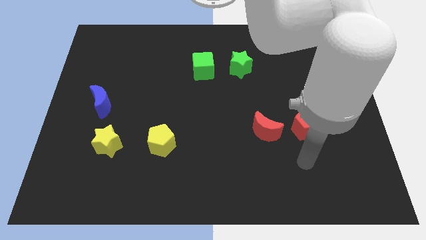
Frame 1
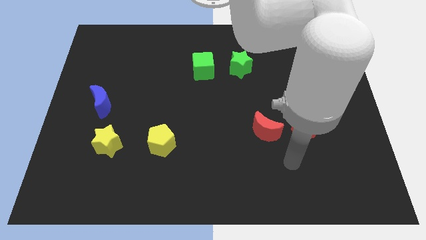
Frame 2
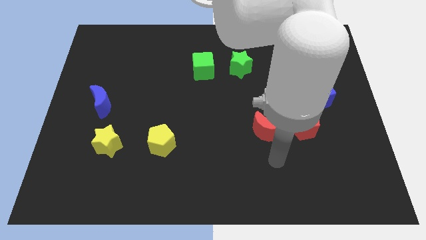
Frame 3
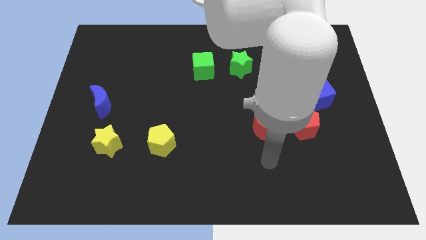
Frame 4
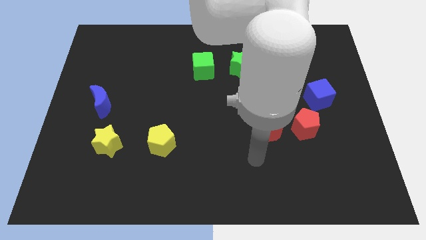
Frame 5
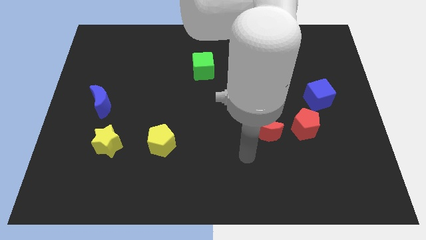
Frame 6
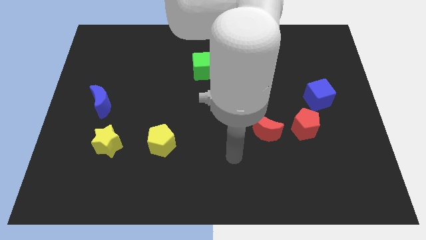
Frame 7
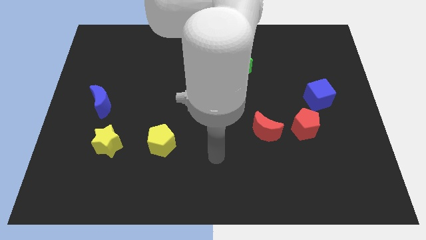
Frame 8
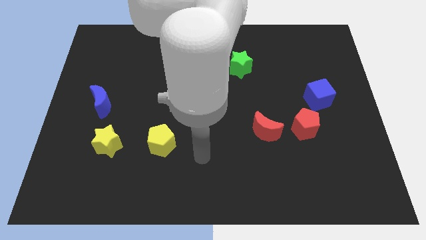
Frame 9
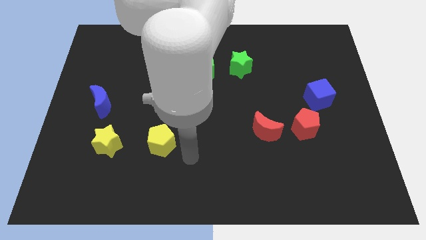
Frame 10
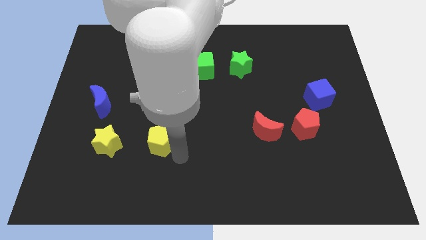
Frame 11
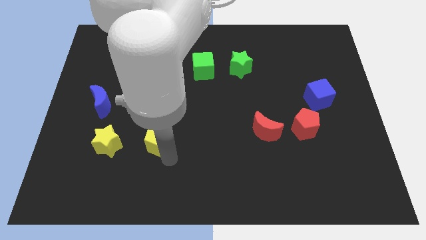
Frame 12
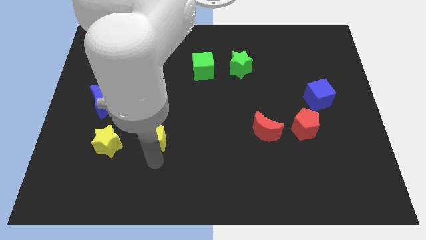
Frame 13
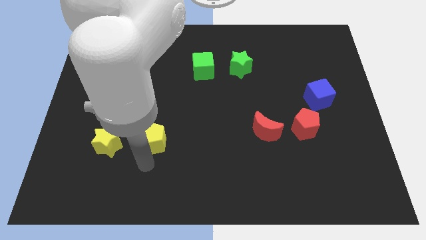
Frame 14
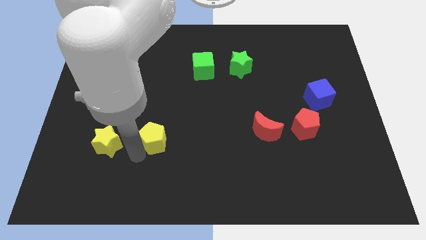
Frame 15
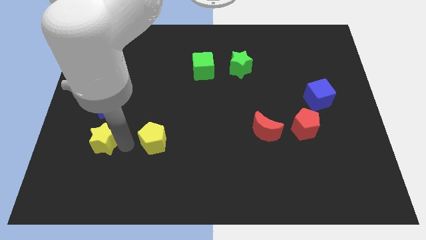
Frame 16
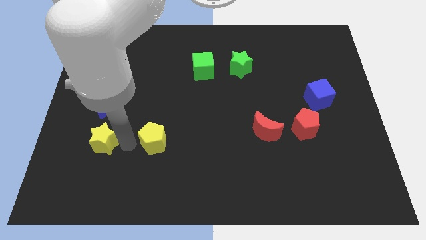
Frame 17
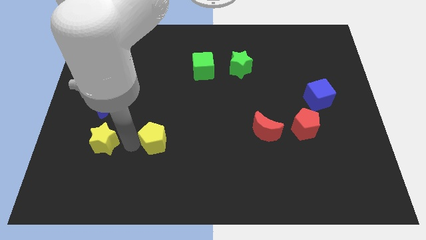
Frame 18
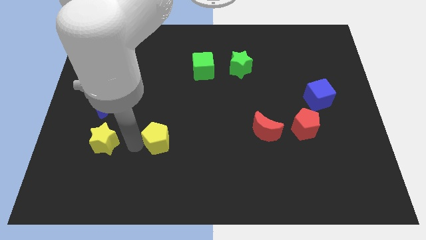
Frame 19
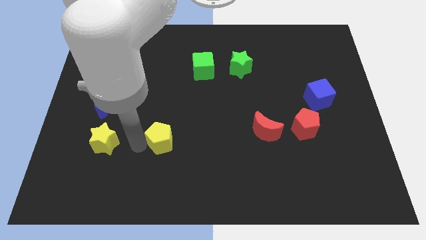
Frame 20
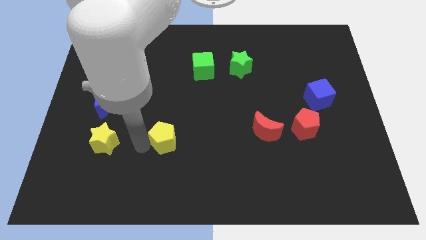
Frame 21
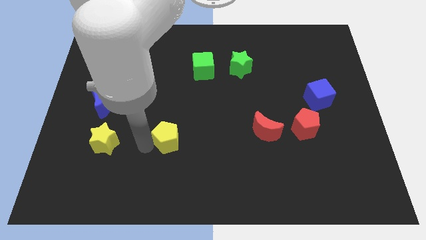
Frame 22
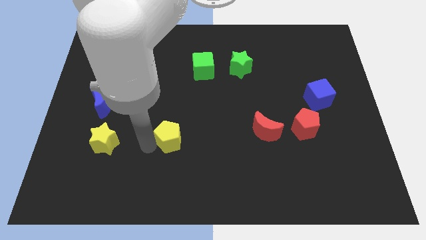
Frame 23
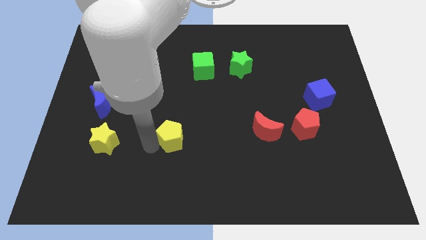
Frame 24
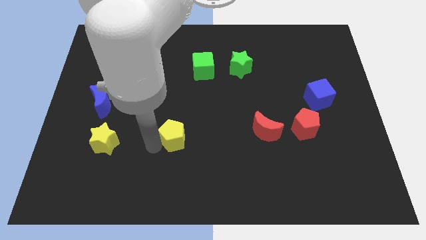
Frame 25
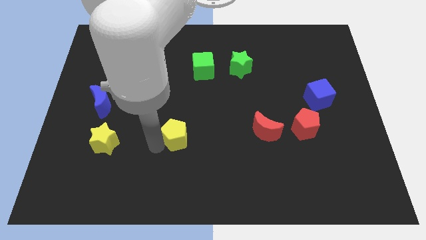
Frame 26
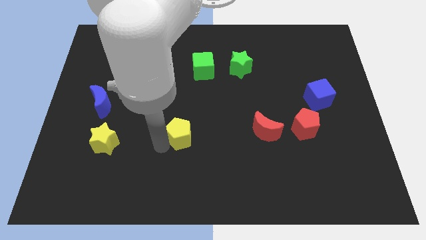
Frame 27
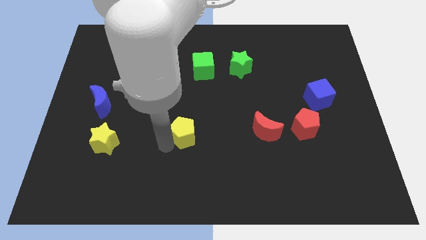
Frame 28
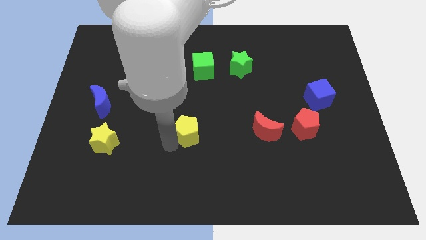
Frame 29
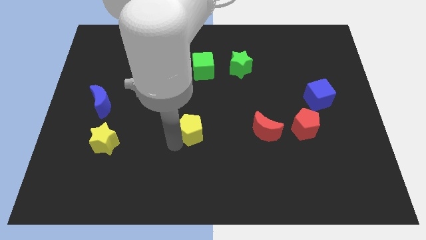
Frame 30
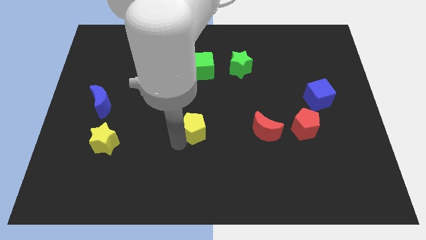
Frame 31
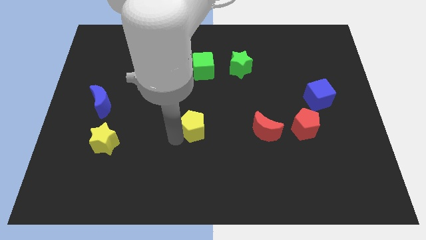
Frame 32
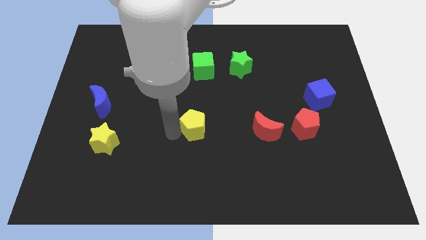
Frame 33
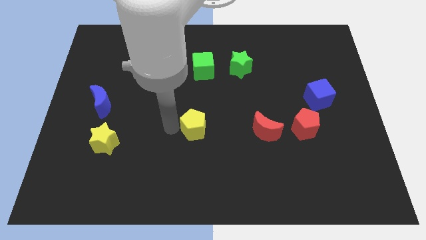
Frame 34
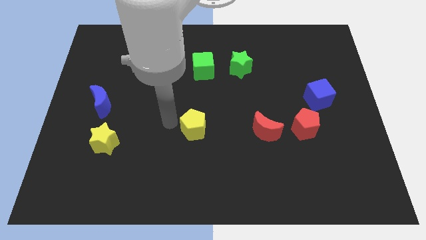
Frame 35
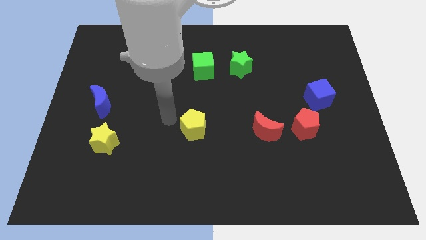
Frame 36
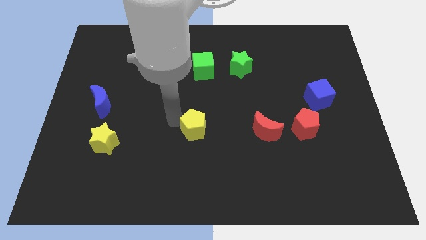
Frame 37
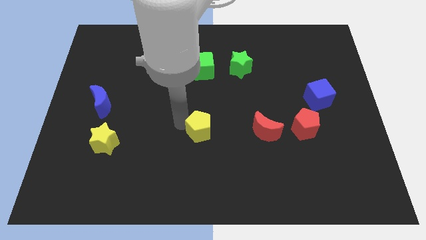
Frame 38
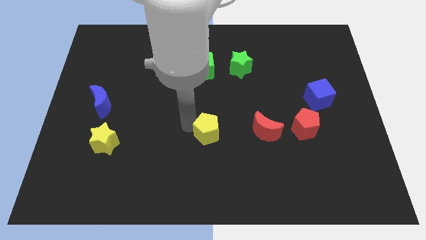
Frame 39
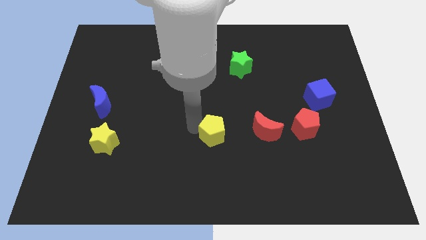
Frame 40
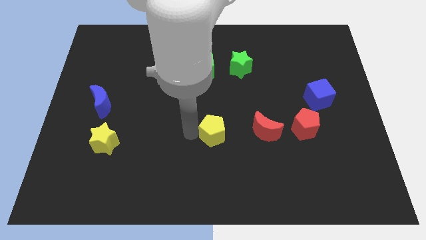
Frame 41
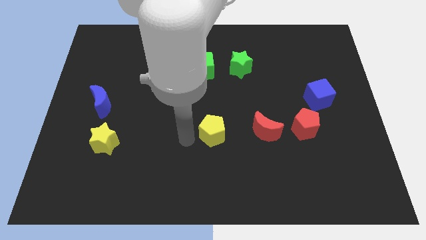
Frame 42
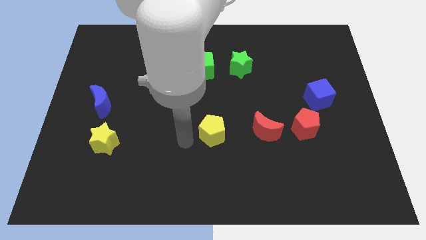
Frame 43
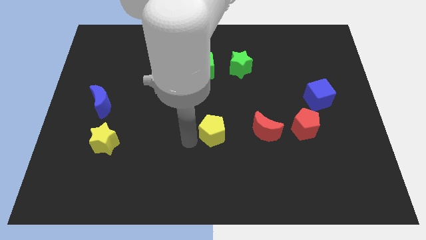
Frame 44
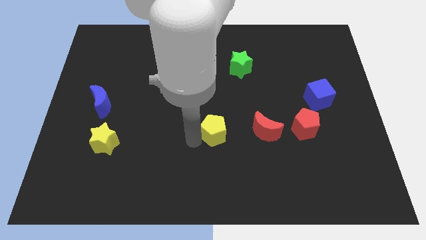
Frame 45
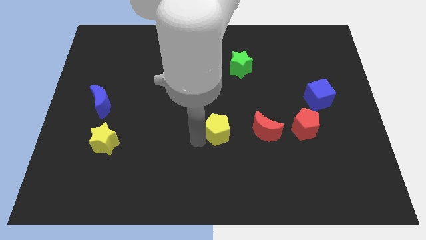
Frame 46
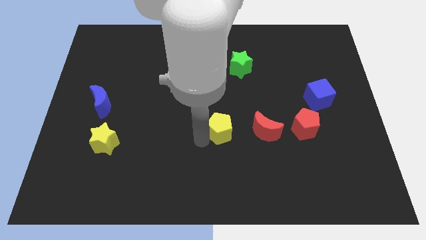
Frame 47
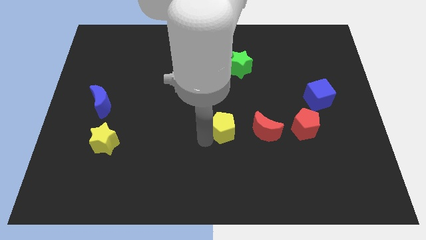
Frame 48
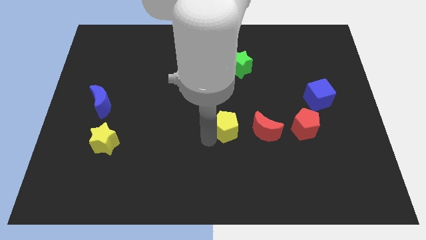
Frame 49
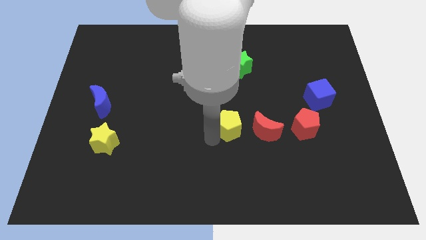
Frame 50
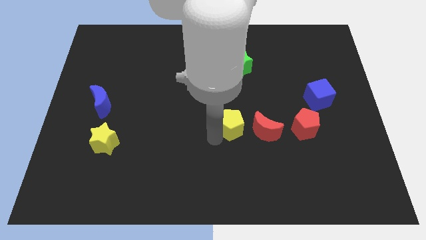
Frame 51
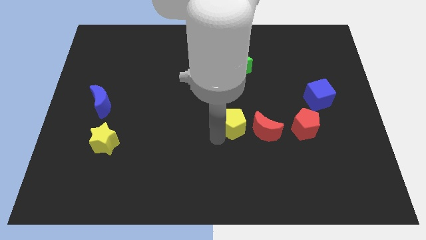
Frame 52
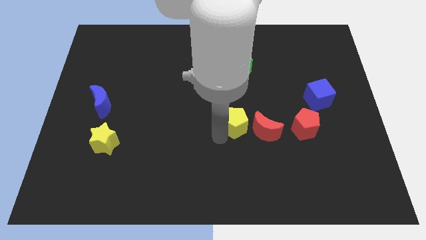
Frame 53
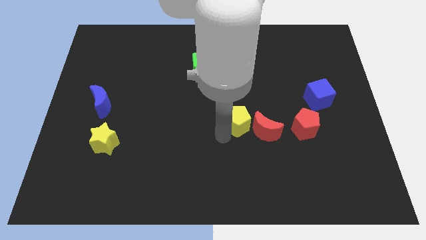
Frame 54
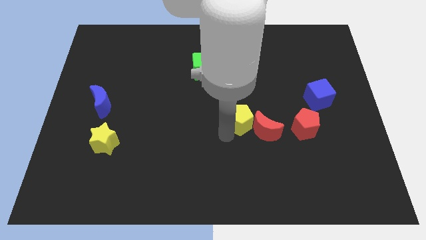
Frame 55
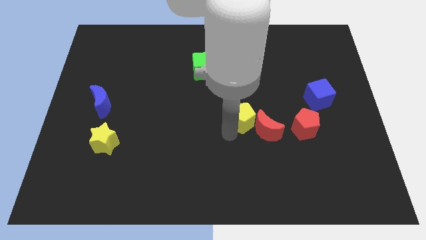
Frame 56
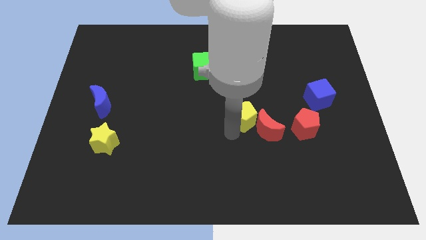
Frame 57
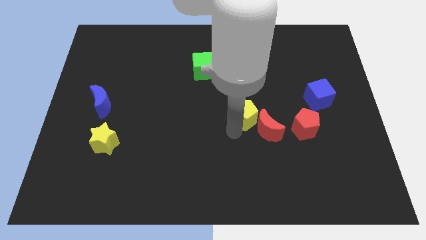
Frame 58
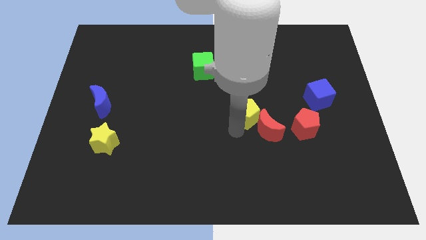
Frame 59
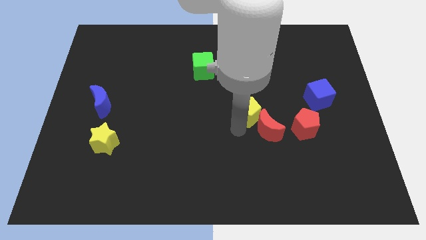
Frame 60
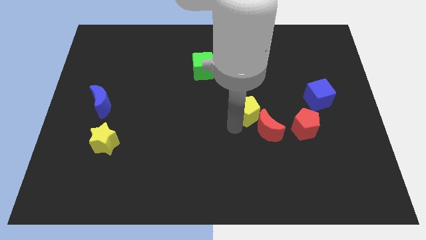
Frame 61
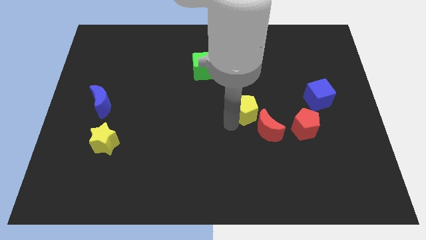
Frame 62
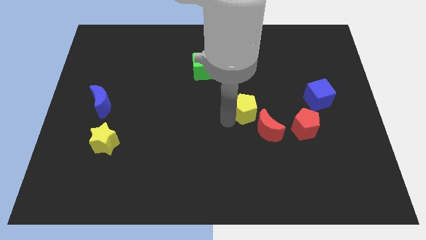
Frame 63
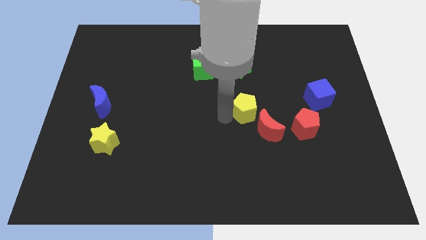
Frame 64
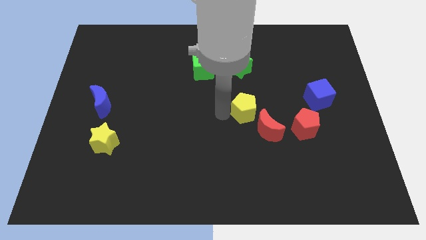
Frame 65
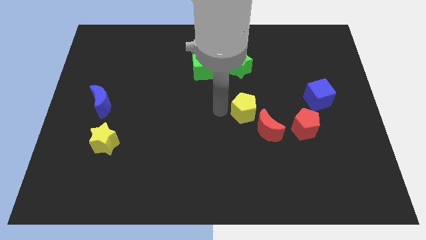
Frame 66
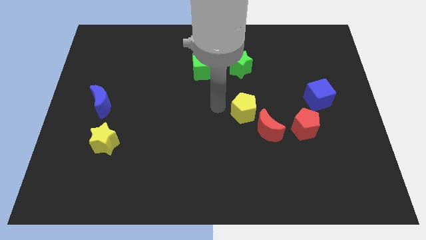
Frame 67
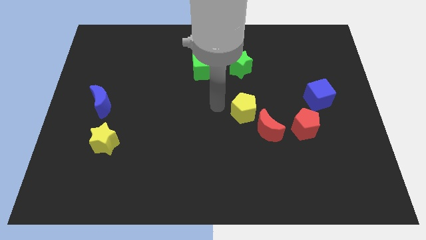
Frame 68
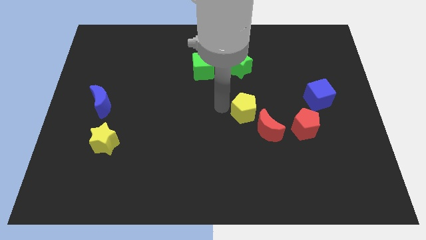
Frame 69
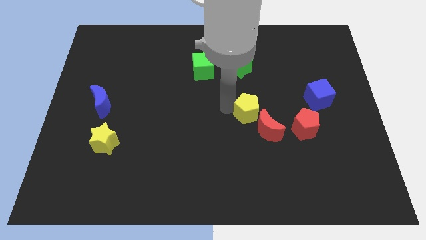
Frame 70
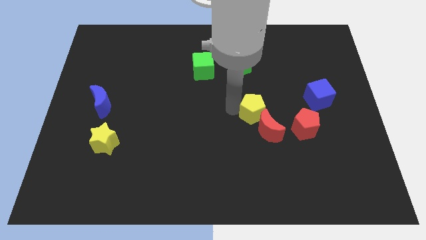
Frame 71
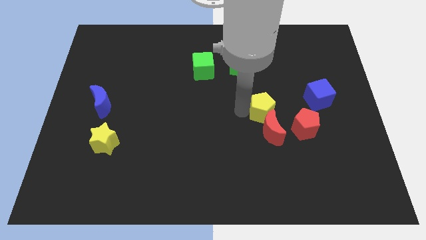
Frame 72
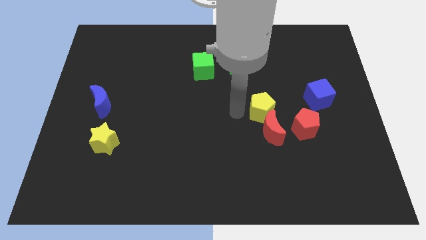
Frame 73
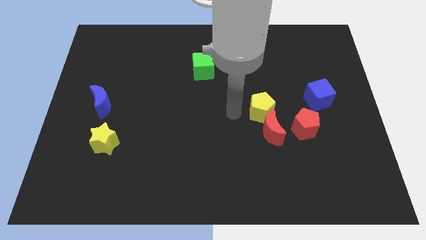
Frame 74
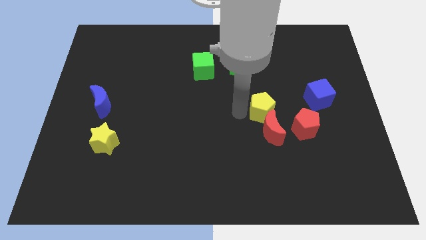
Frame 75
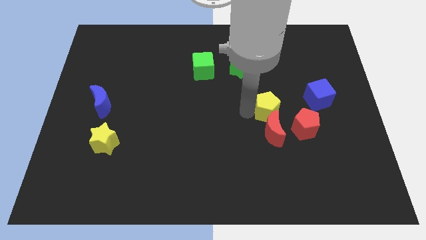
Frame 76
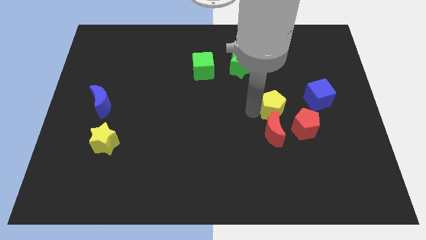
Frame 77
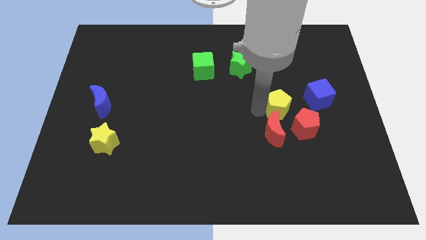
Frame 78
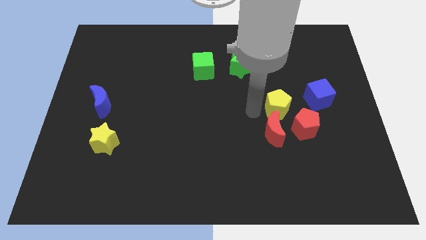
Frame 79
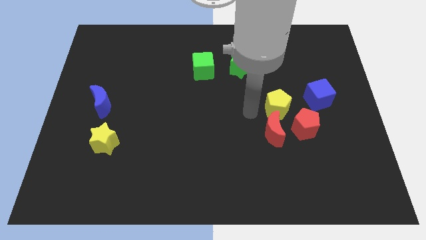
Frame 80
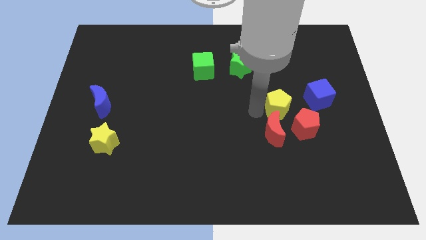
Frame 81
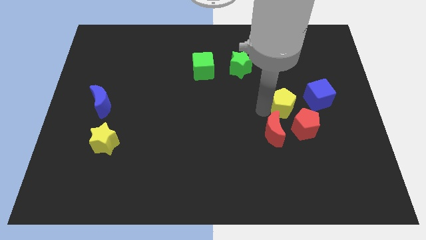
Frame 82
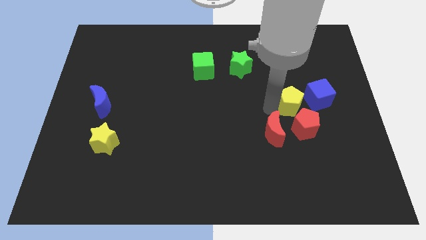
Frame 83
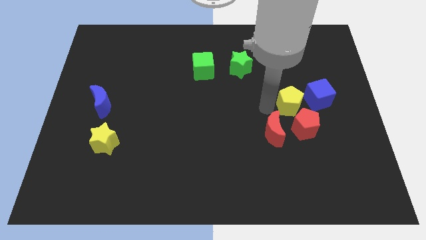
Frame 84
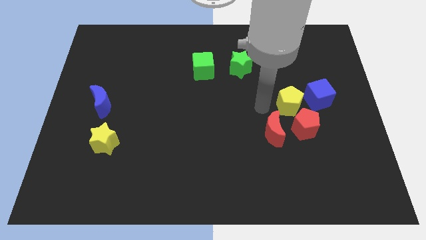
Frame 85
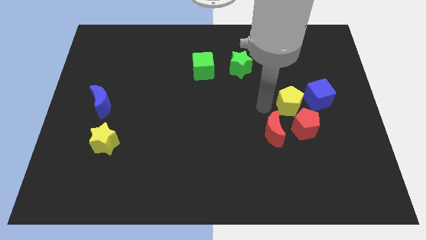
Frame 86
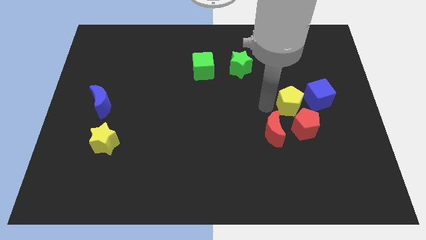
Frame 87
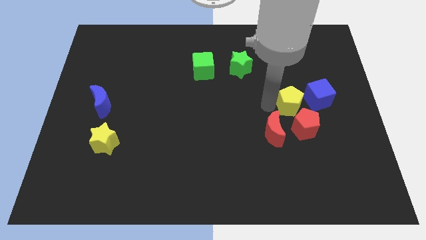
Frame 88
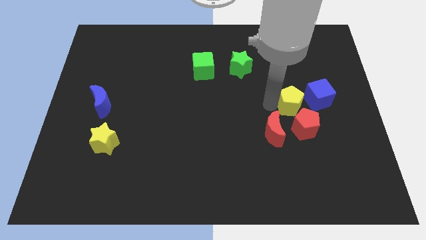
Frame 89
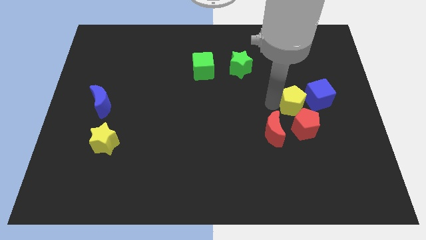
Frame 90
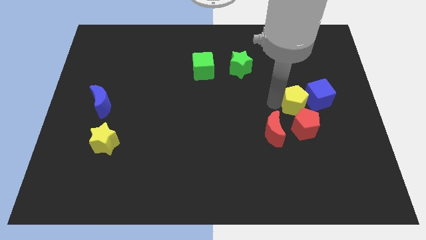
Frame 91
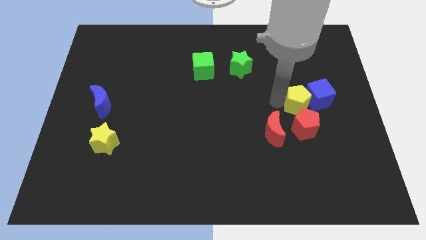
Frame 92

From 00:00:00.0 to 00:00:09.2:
push the yellow pentagon to the blue cube
